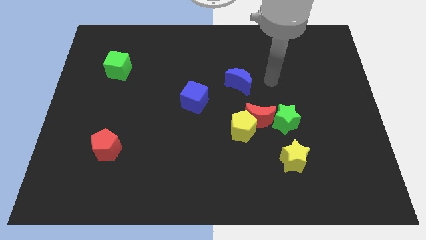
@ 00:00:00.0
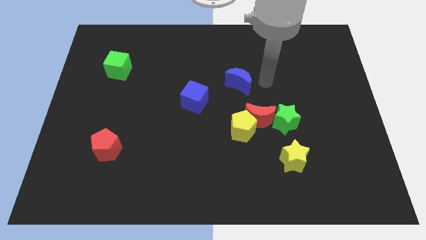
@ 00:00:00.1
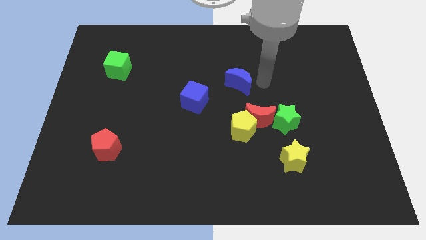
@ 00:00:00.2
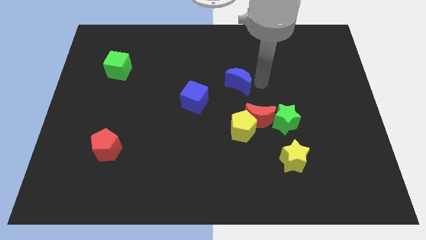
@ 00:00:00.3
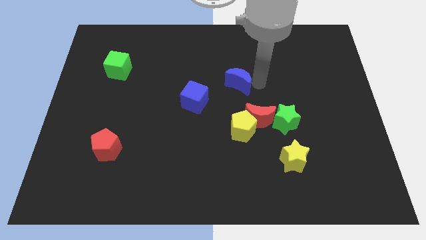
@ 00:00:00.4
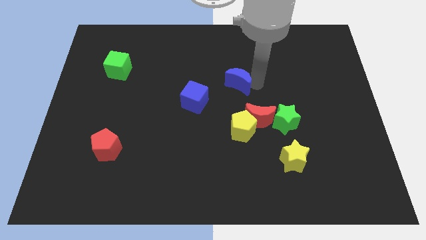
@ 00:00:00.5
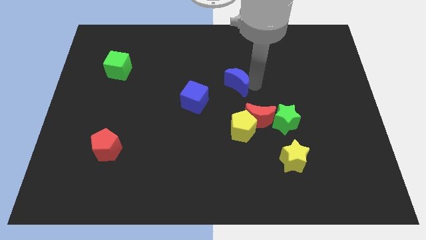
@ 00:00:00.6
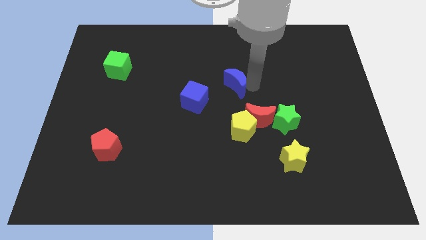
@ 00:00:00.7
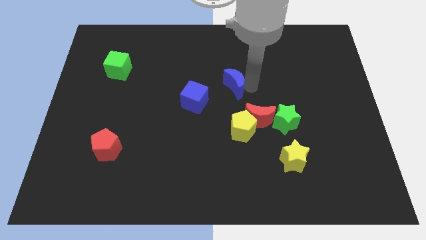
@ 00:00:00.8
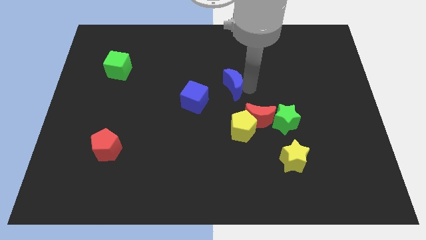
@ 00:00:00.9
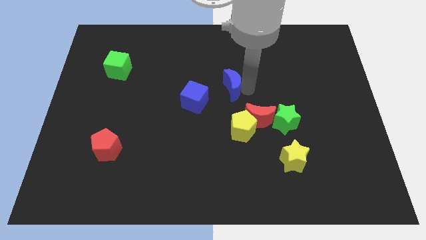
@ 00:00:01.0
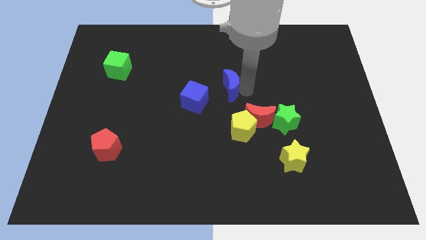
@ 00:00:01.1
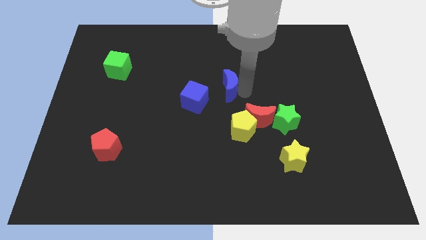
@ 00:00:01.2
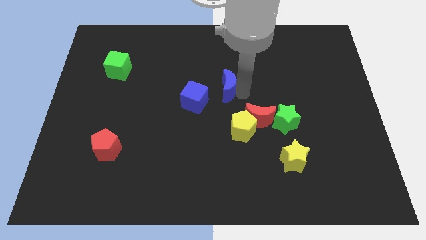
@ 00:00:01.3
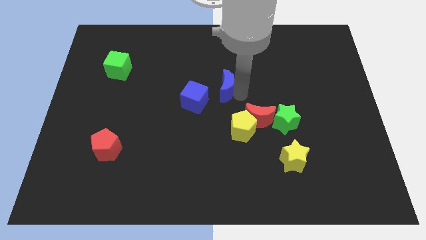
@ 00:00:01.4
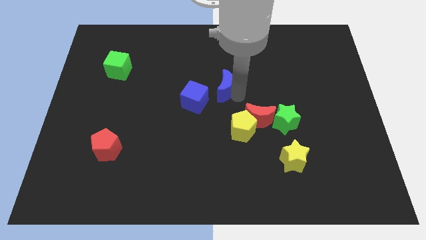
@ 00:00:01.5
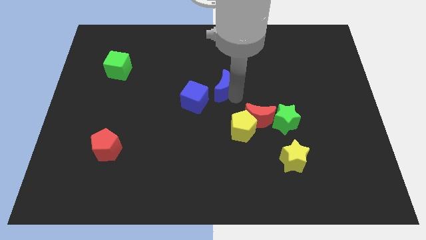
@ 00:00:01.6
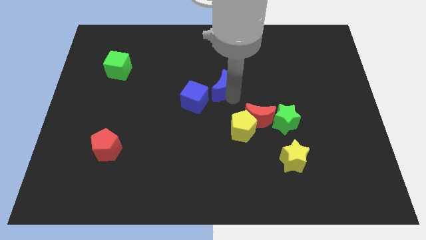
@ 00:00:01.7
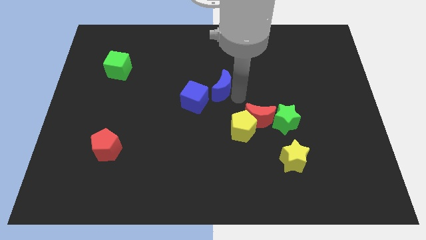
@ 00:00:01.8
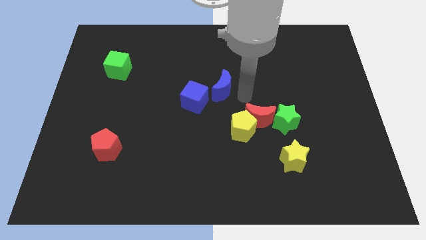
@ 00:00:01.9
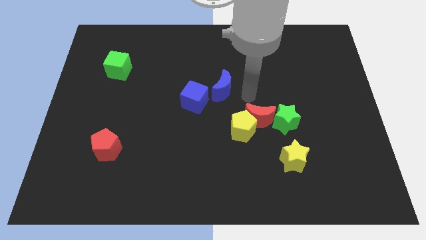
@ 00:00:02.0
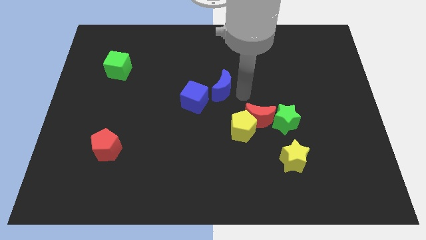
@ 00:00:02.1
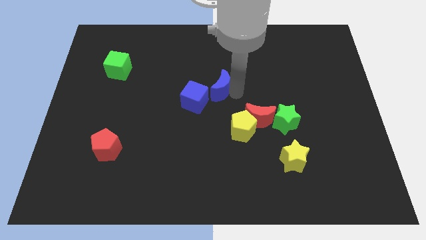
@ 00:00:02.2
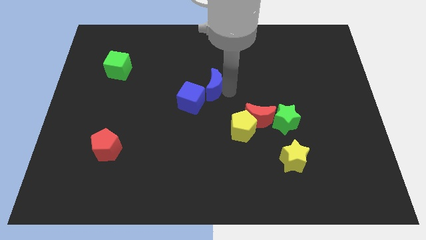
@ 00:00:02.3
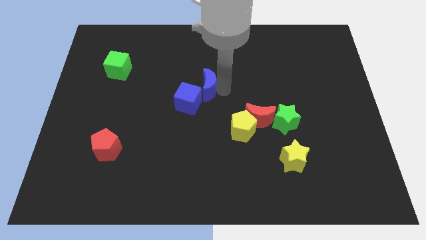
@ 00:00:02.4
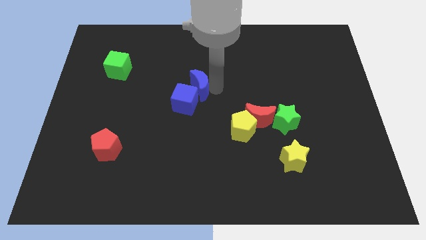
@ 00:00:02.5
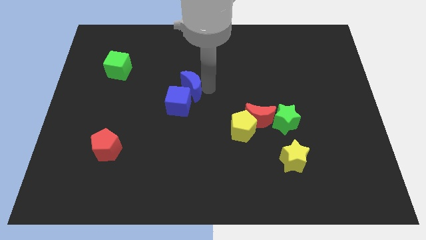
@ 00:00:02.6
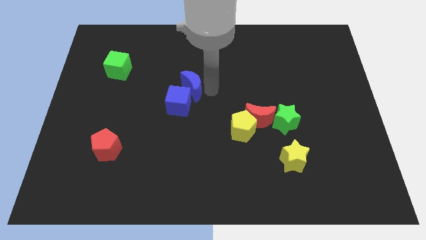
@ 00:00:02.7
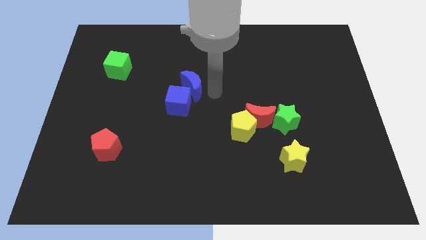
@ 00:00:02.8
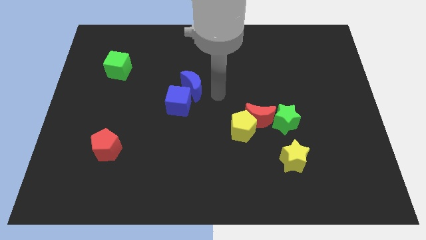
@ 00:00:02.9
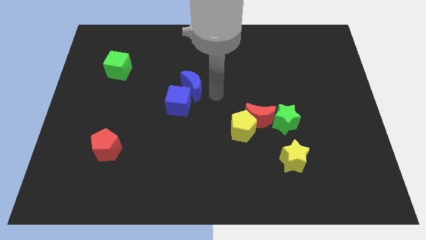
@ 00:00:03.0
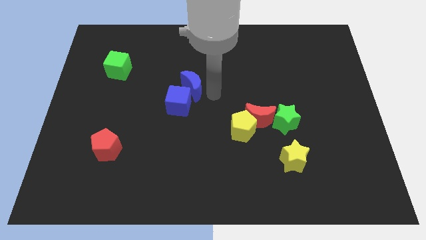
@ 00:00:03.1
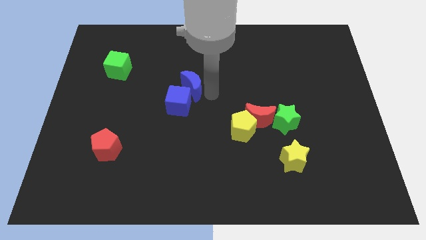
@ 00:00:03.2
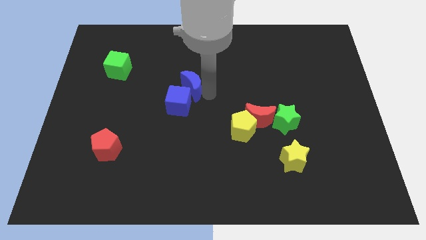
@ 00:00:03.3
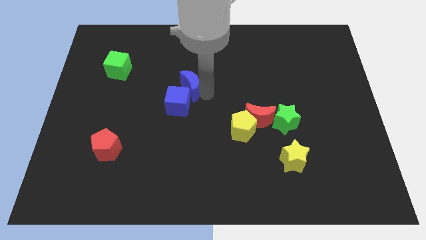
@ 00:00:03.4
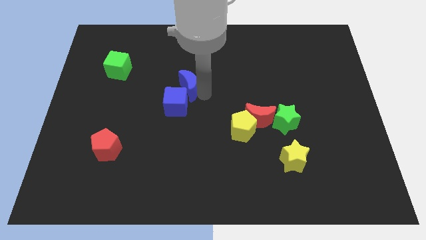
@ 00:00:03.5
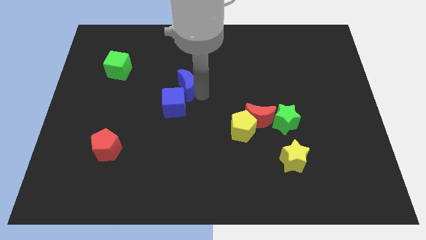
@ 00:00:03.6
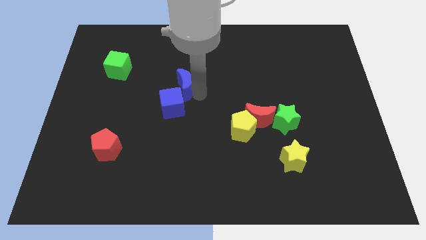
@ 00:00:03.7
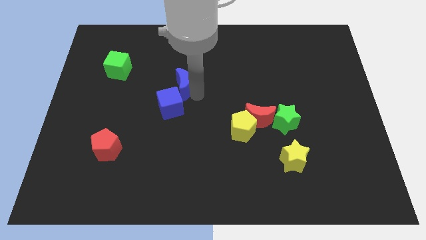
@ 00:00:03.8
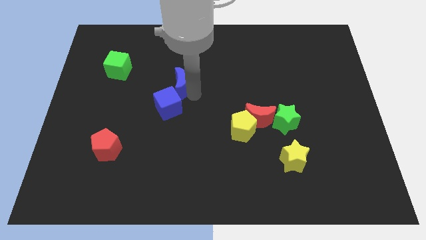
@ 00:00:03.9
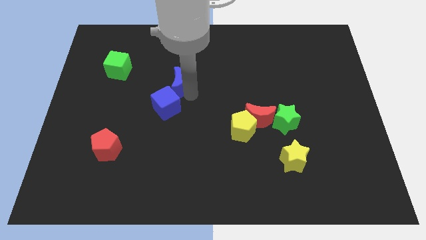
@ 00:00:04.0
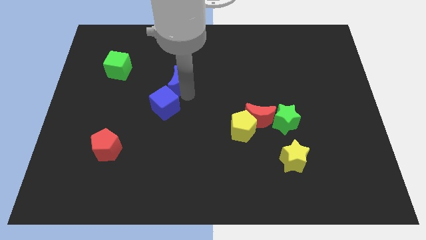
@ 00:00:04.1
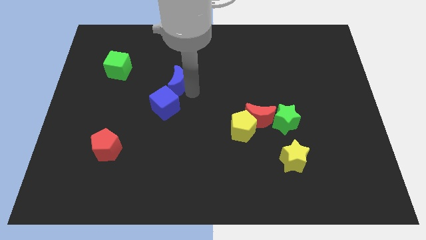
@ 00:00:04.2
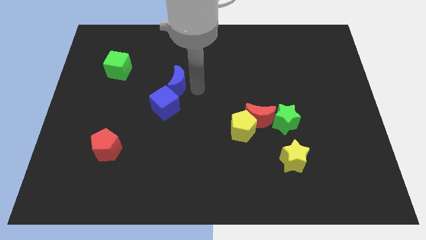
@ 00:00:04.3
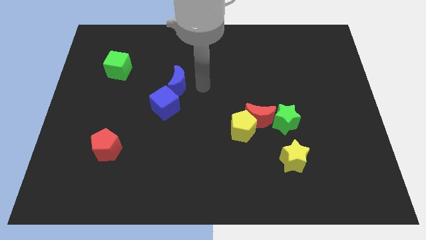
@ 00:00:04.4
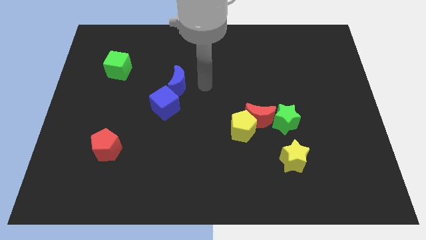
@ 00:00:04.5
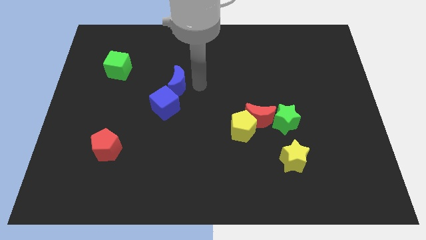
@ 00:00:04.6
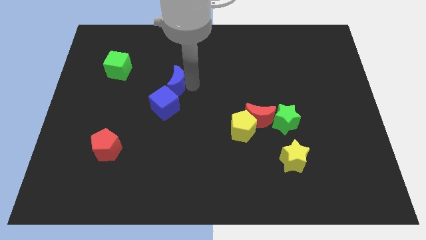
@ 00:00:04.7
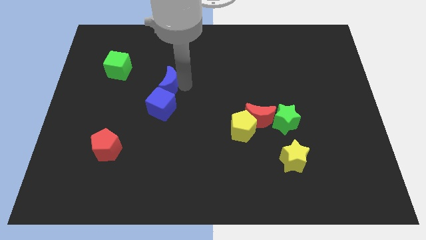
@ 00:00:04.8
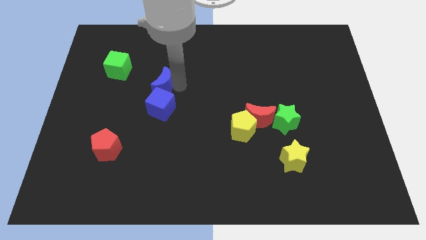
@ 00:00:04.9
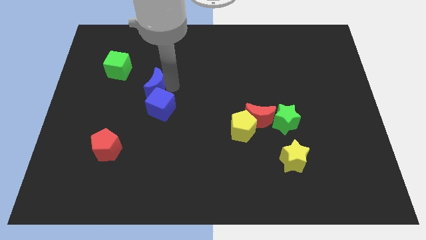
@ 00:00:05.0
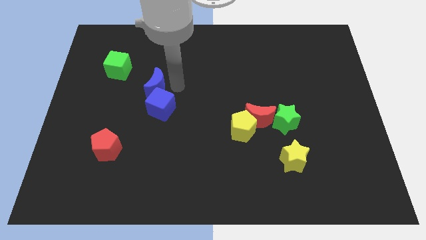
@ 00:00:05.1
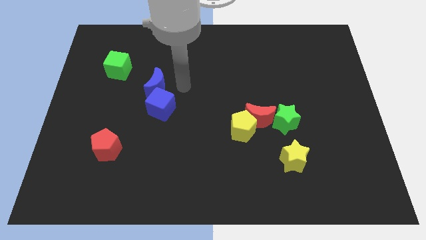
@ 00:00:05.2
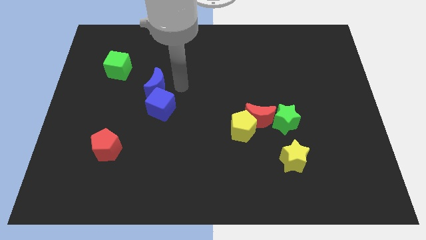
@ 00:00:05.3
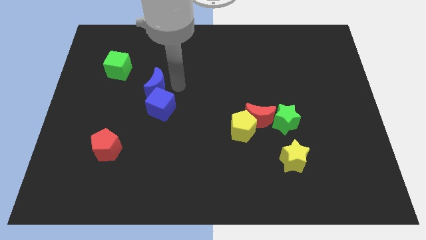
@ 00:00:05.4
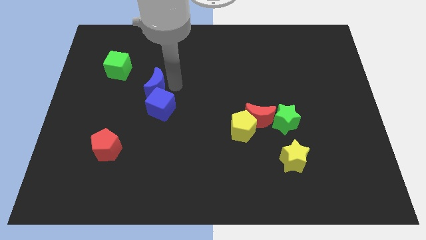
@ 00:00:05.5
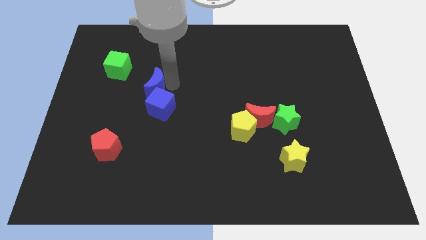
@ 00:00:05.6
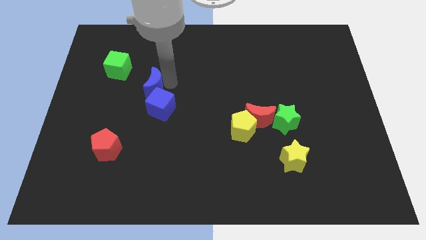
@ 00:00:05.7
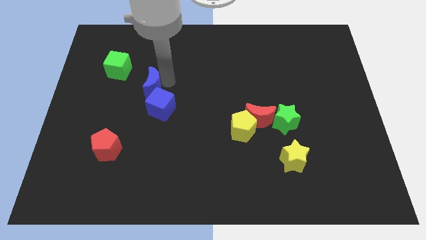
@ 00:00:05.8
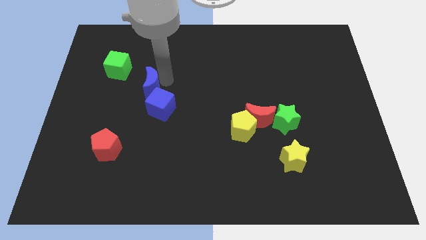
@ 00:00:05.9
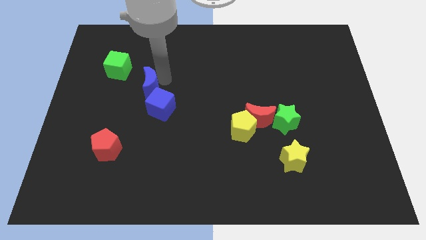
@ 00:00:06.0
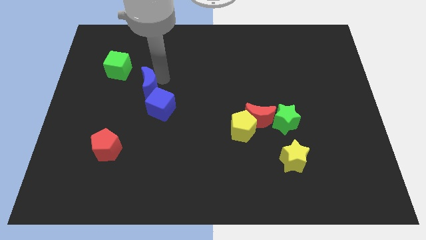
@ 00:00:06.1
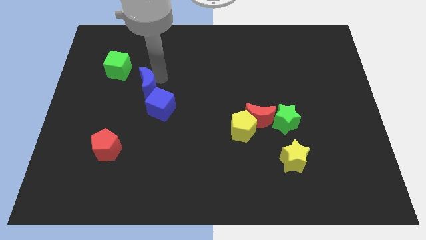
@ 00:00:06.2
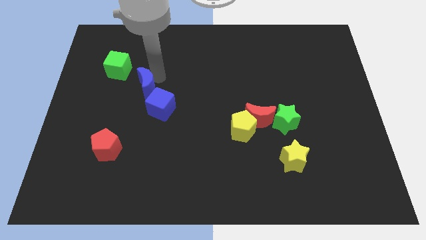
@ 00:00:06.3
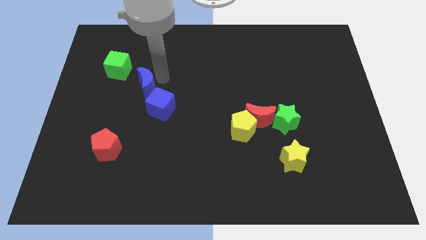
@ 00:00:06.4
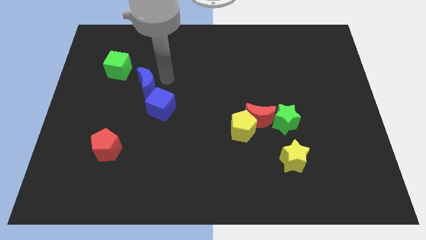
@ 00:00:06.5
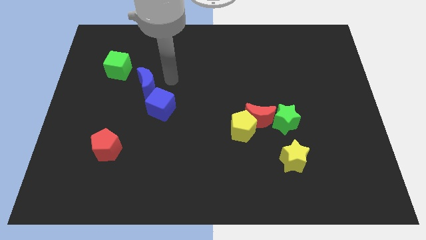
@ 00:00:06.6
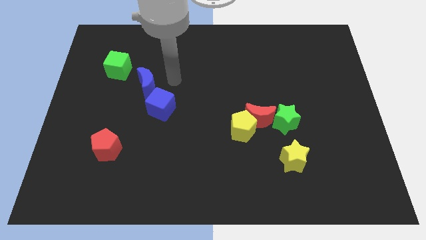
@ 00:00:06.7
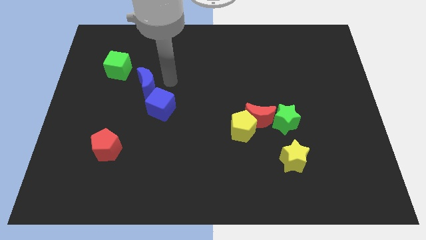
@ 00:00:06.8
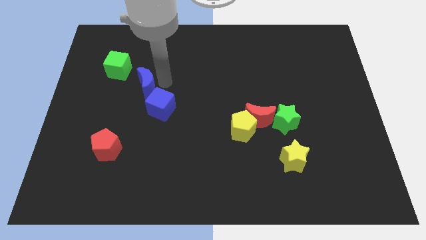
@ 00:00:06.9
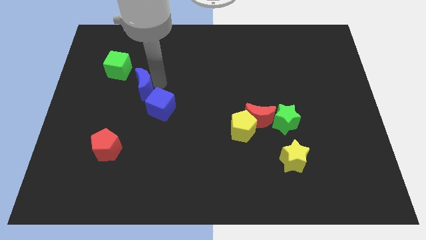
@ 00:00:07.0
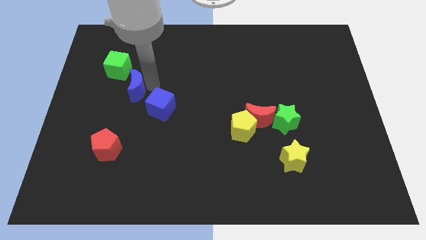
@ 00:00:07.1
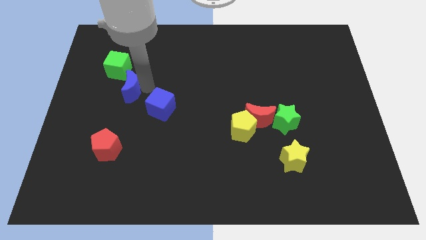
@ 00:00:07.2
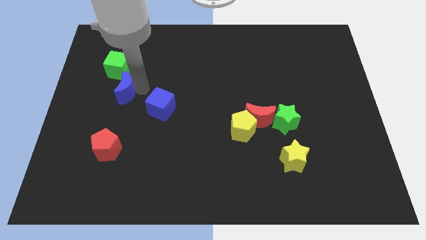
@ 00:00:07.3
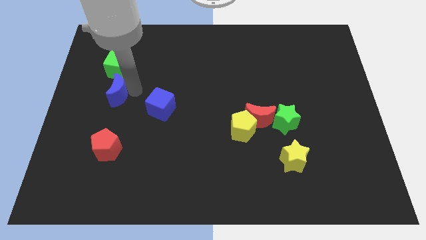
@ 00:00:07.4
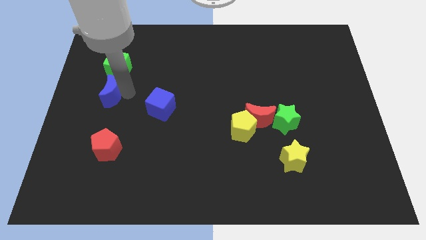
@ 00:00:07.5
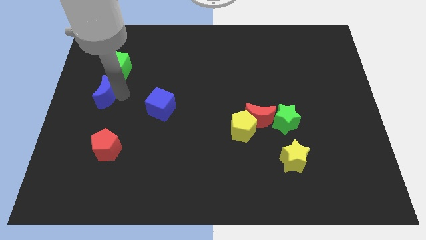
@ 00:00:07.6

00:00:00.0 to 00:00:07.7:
push the blue moon to the left side of the board
